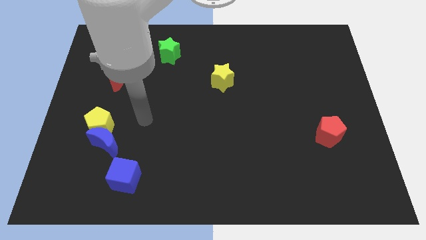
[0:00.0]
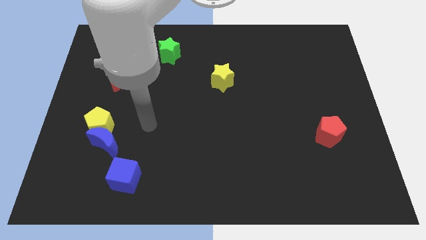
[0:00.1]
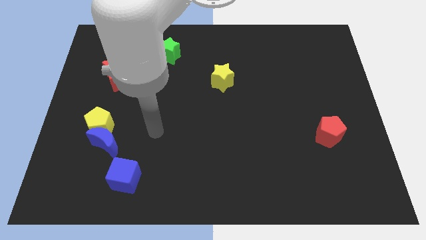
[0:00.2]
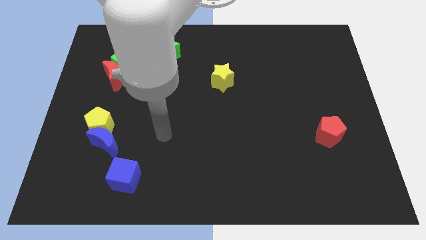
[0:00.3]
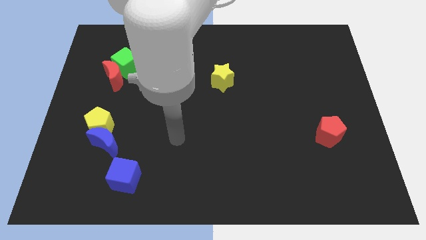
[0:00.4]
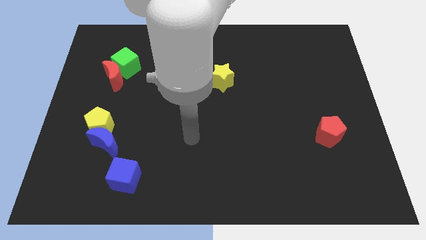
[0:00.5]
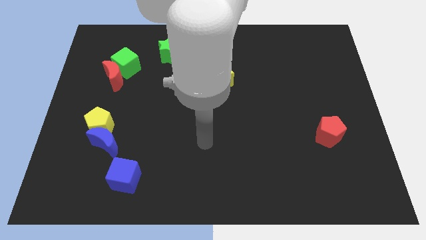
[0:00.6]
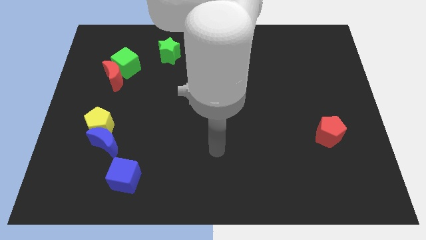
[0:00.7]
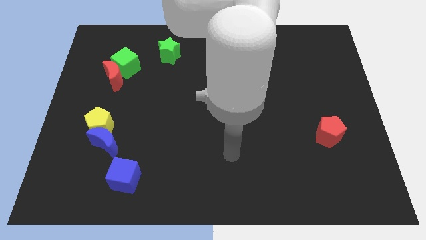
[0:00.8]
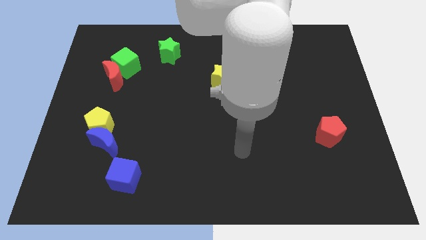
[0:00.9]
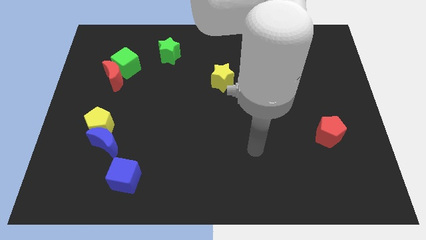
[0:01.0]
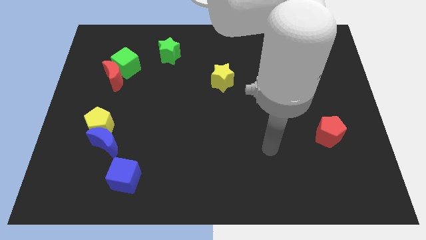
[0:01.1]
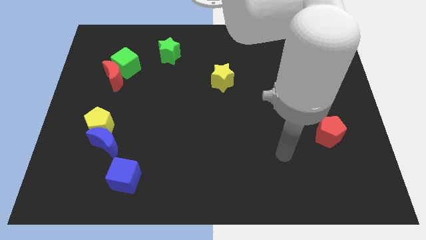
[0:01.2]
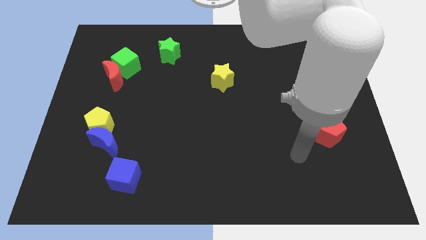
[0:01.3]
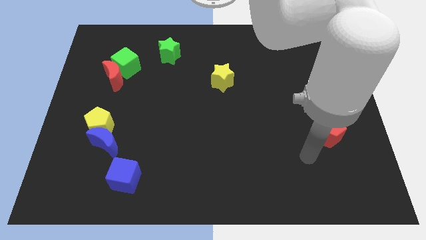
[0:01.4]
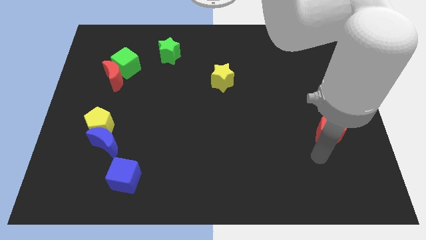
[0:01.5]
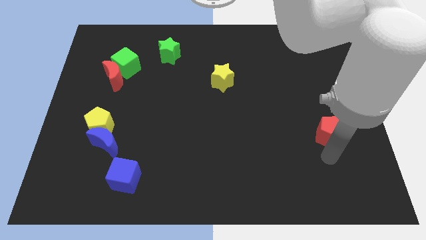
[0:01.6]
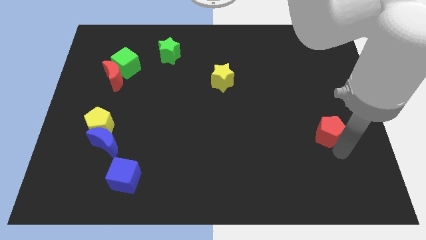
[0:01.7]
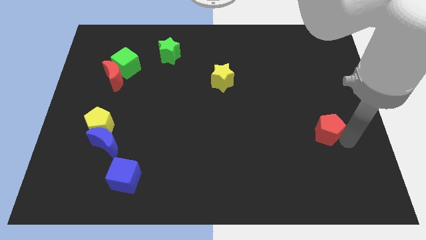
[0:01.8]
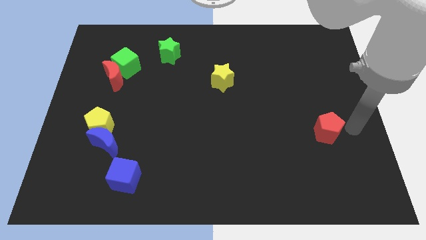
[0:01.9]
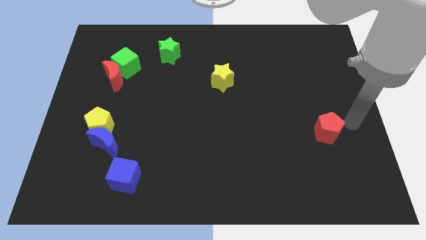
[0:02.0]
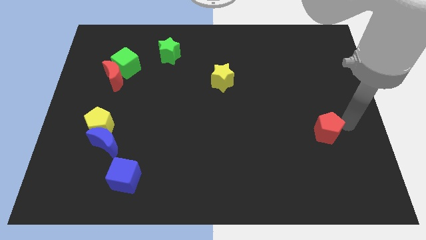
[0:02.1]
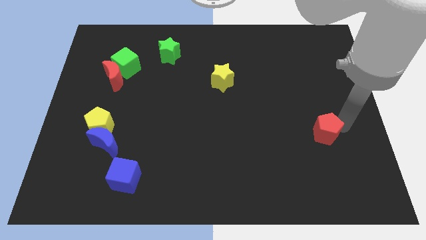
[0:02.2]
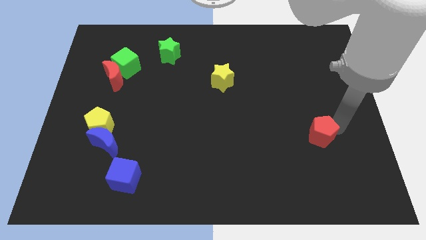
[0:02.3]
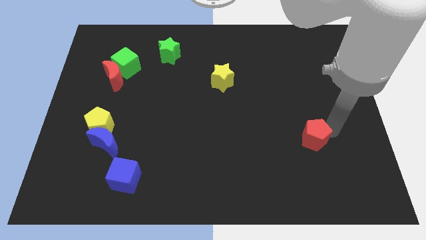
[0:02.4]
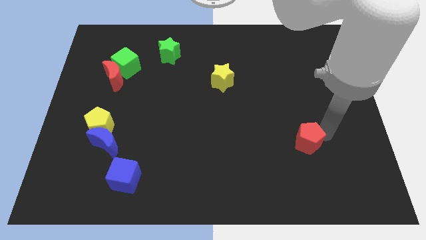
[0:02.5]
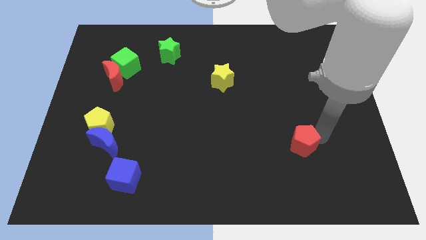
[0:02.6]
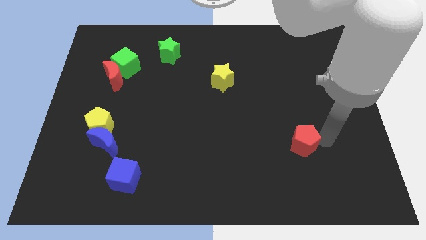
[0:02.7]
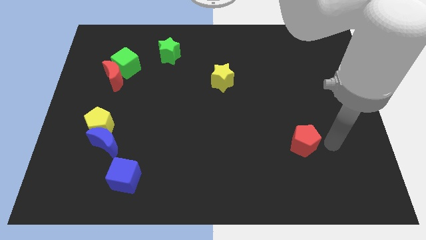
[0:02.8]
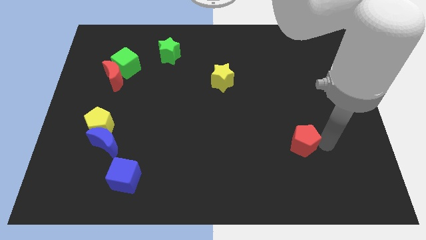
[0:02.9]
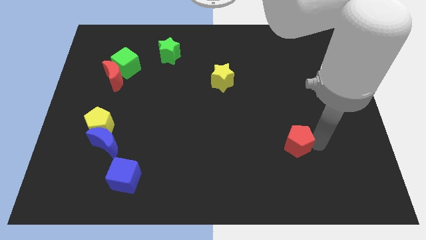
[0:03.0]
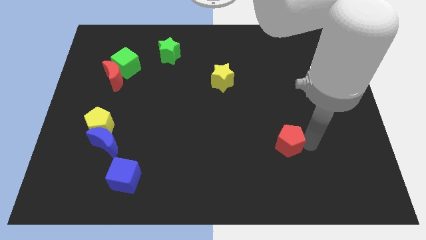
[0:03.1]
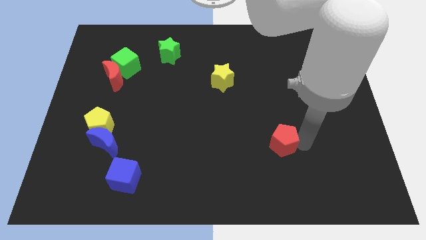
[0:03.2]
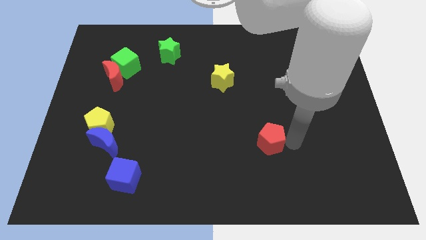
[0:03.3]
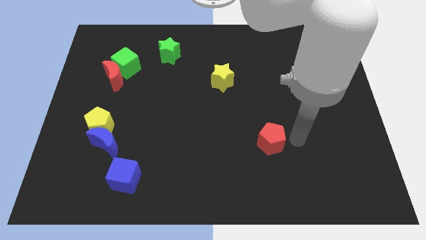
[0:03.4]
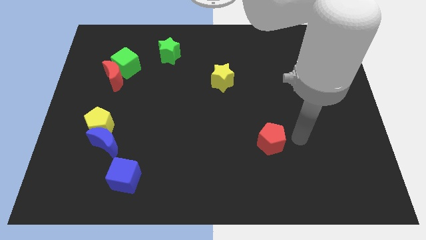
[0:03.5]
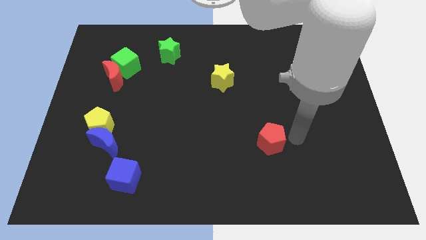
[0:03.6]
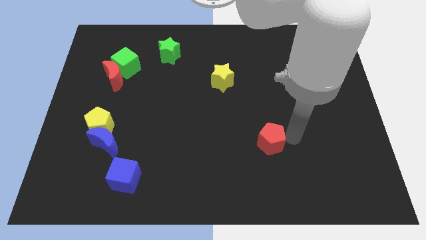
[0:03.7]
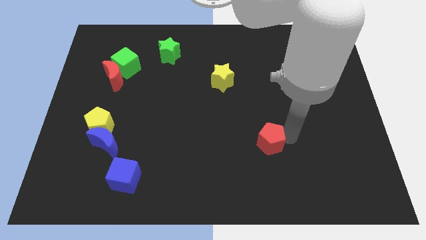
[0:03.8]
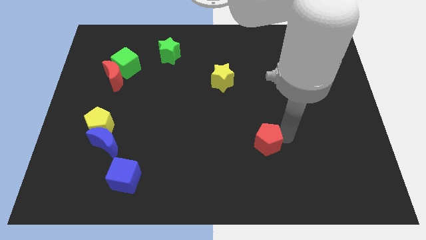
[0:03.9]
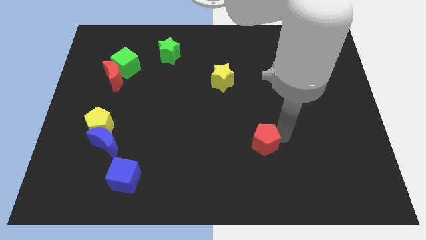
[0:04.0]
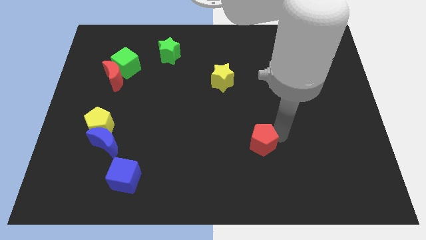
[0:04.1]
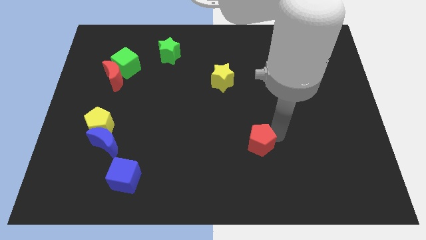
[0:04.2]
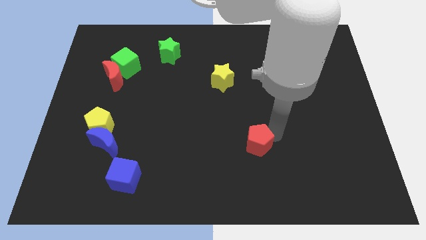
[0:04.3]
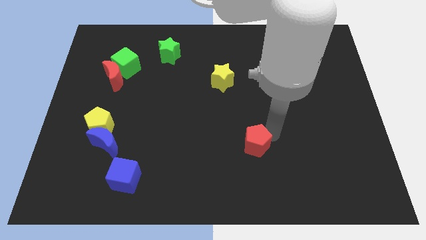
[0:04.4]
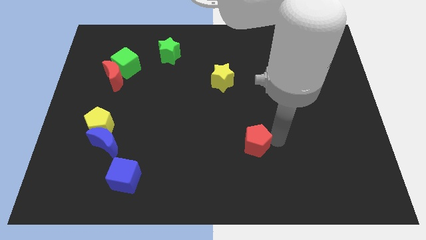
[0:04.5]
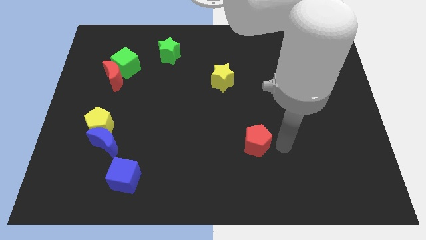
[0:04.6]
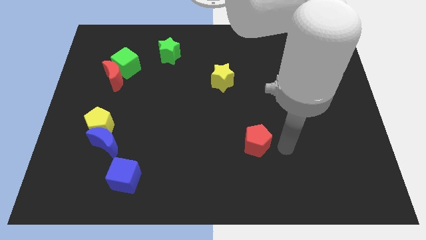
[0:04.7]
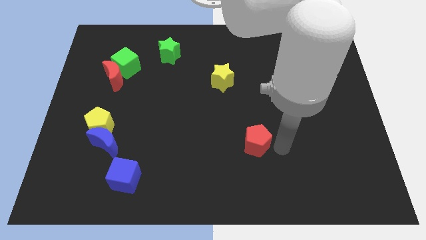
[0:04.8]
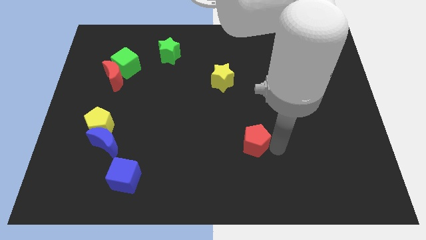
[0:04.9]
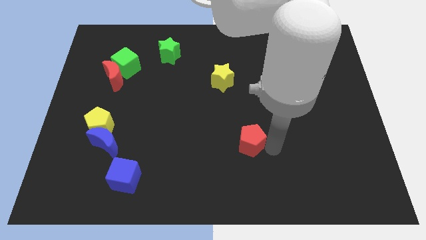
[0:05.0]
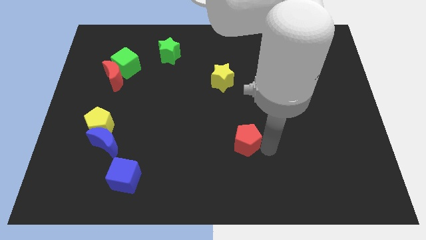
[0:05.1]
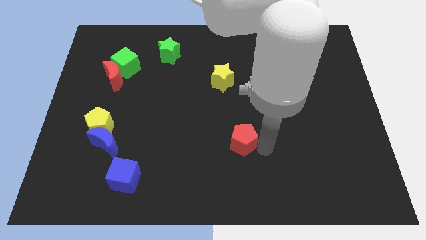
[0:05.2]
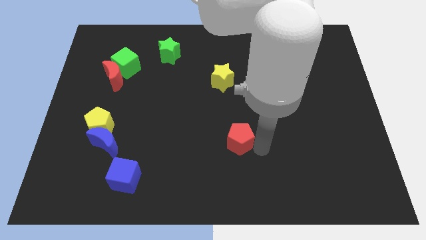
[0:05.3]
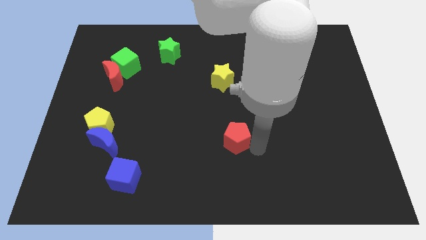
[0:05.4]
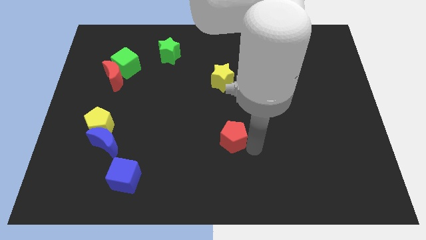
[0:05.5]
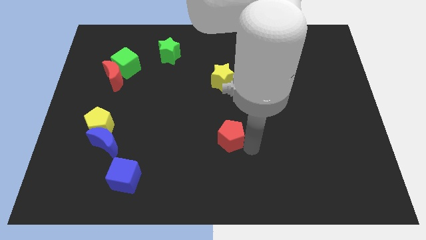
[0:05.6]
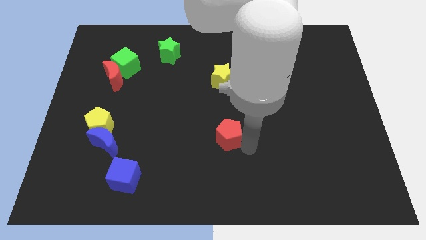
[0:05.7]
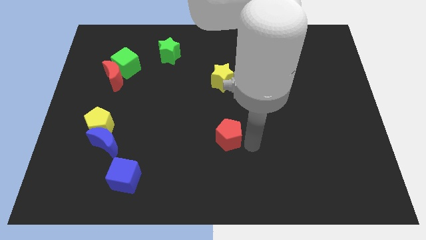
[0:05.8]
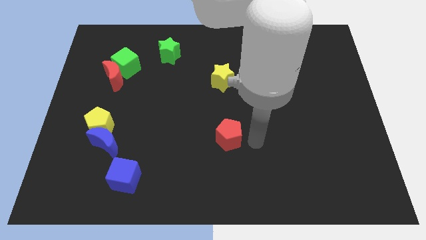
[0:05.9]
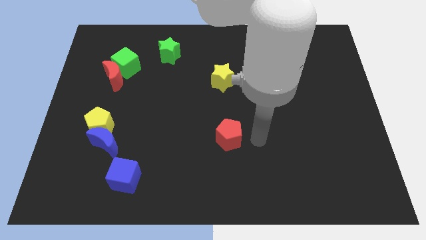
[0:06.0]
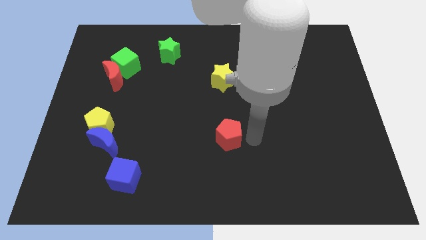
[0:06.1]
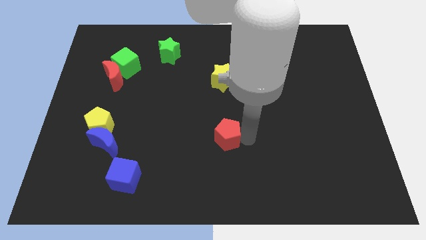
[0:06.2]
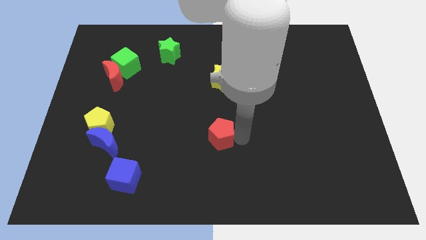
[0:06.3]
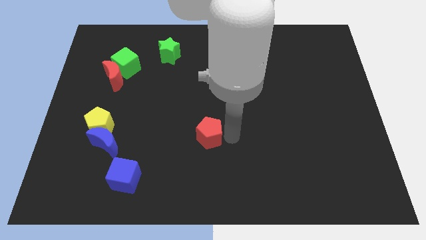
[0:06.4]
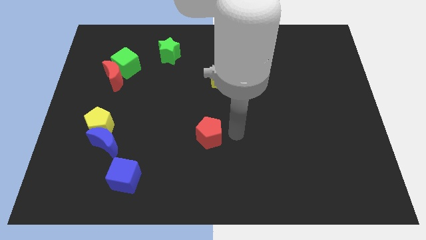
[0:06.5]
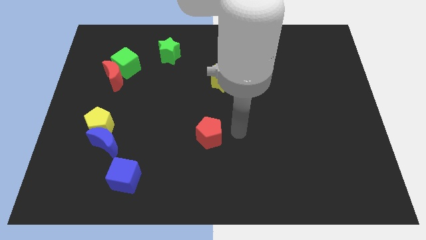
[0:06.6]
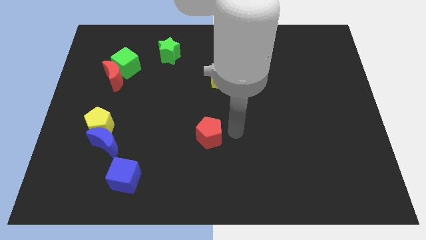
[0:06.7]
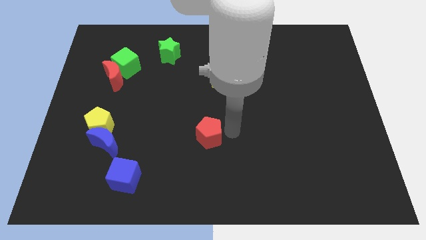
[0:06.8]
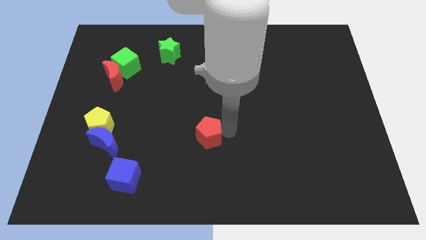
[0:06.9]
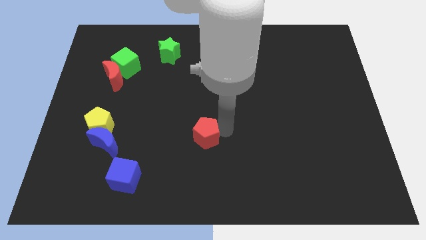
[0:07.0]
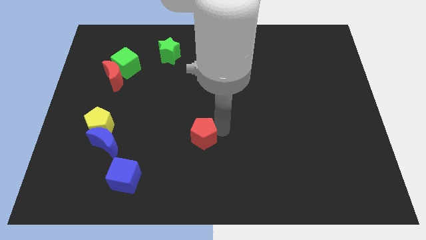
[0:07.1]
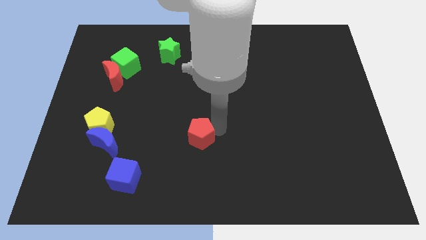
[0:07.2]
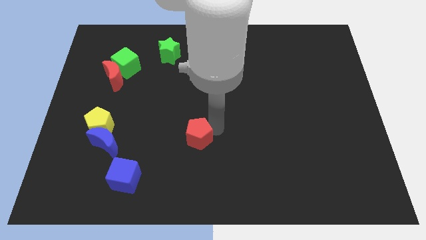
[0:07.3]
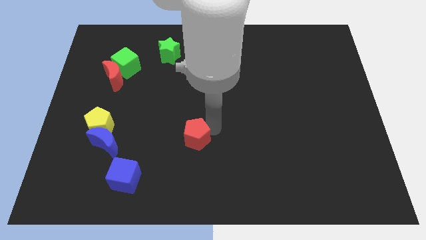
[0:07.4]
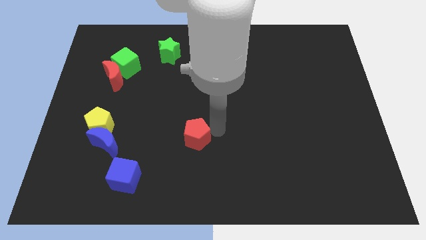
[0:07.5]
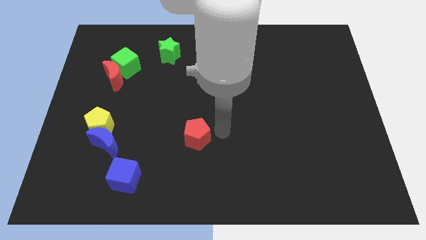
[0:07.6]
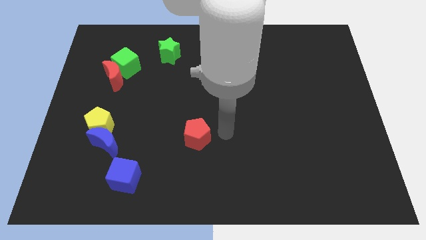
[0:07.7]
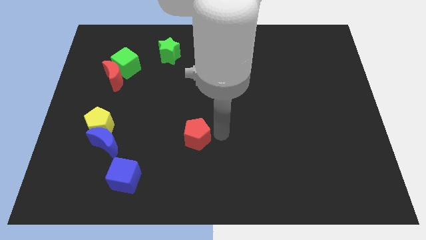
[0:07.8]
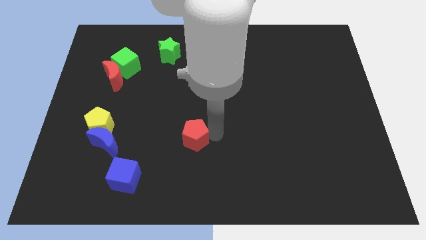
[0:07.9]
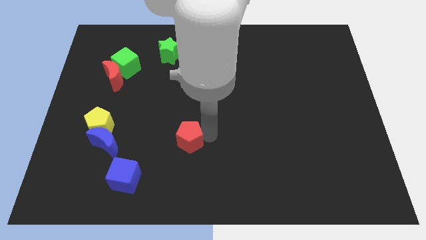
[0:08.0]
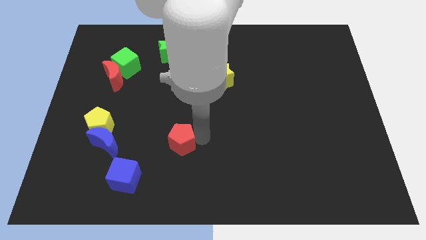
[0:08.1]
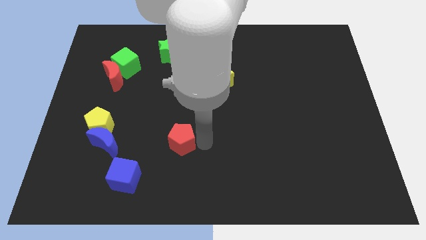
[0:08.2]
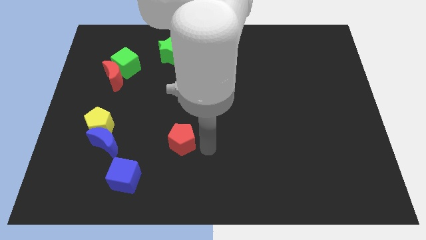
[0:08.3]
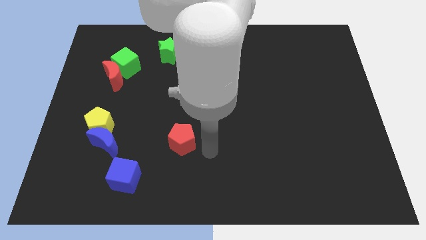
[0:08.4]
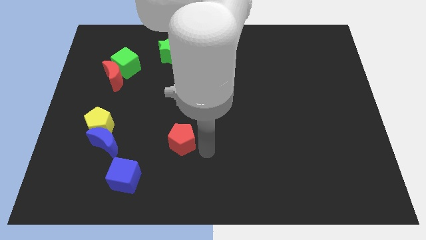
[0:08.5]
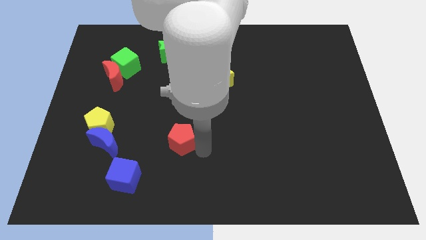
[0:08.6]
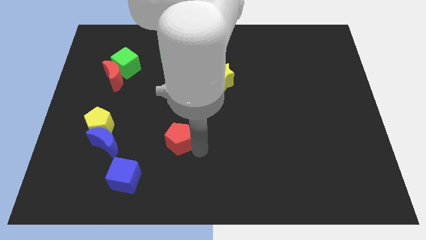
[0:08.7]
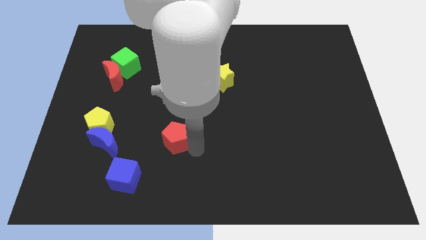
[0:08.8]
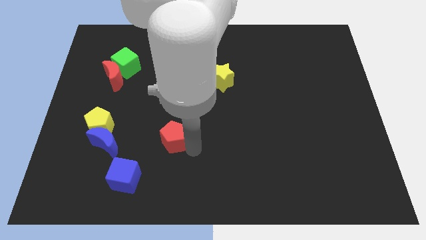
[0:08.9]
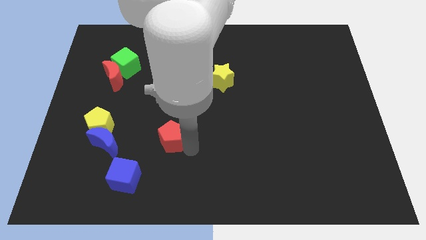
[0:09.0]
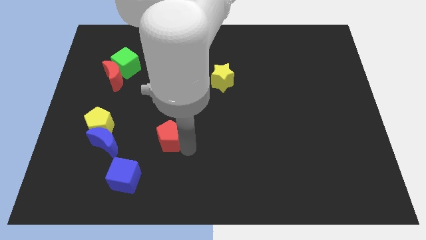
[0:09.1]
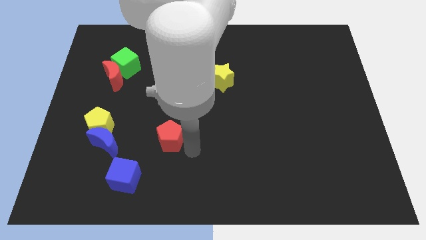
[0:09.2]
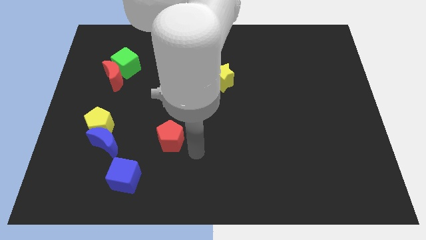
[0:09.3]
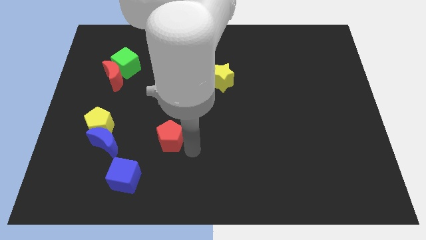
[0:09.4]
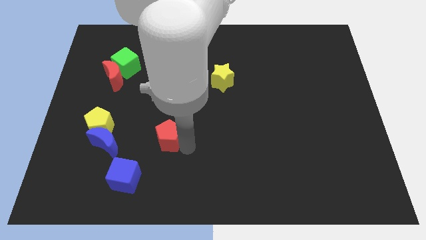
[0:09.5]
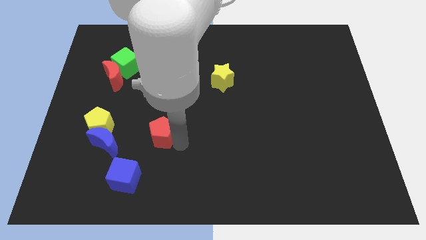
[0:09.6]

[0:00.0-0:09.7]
put the red pentagon to the right side of the yellow pentagon
